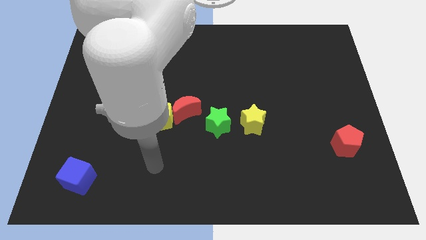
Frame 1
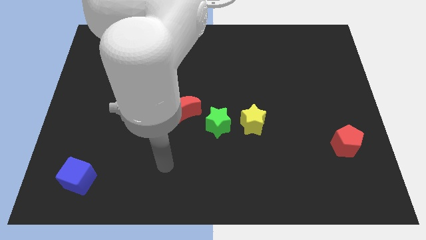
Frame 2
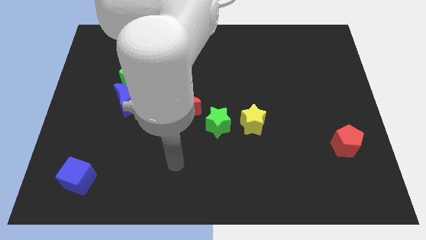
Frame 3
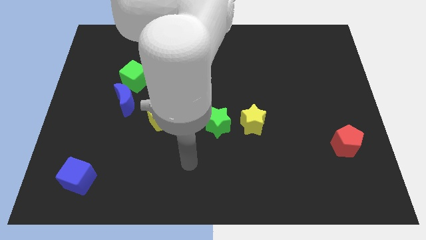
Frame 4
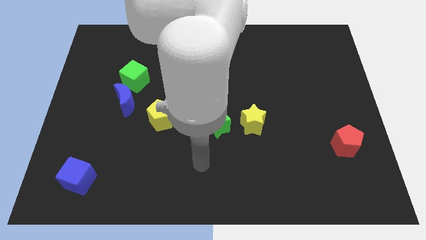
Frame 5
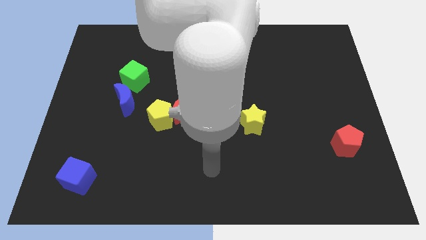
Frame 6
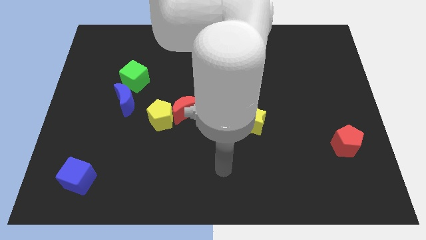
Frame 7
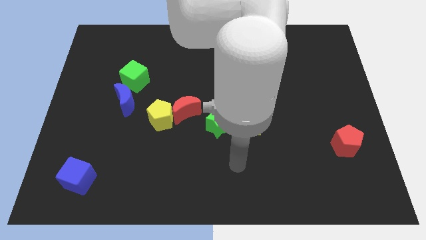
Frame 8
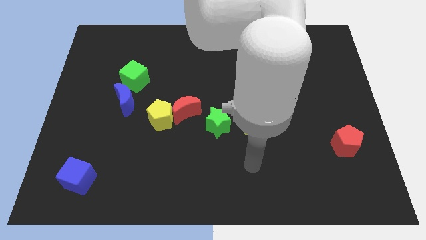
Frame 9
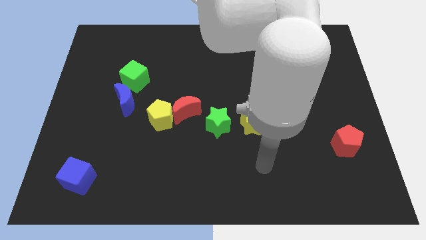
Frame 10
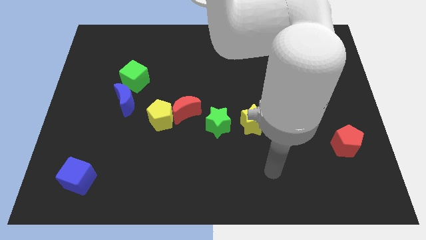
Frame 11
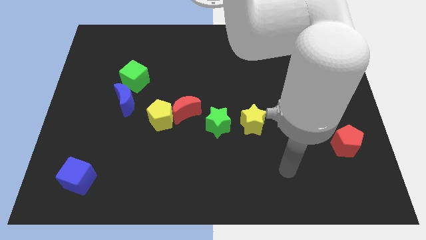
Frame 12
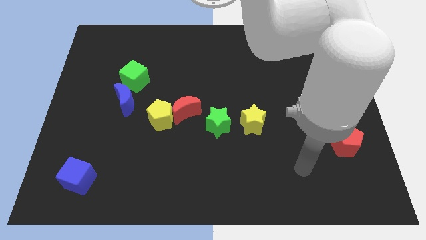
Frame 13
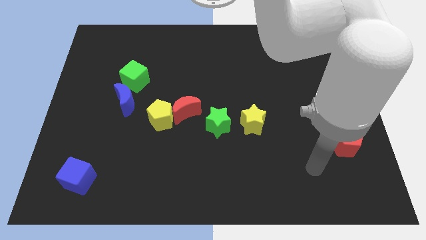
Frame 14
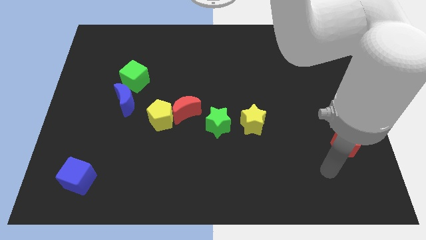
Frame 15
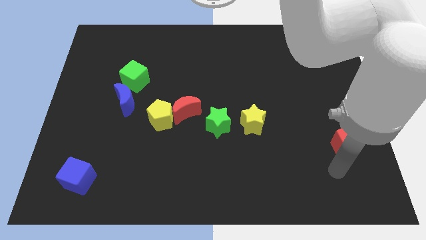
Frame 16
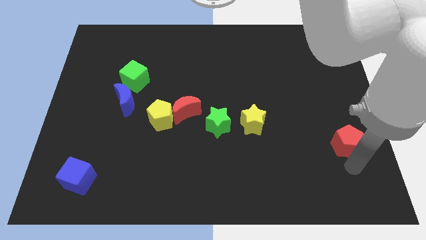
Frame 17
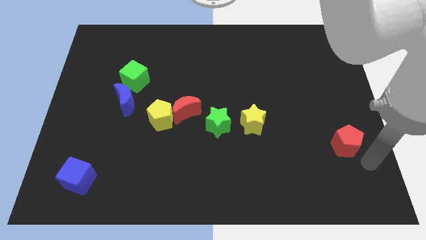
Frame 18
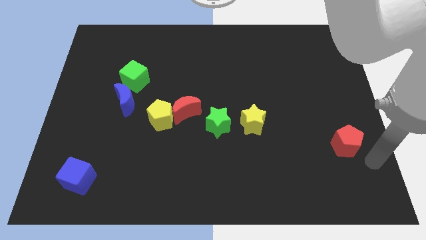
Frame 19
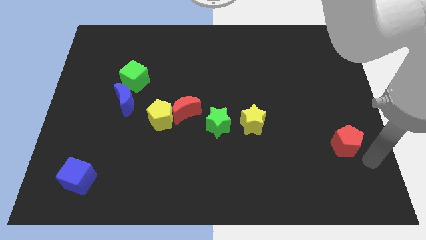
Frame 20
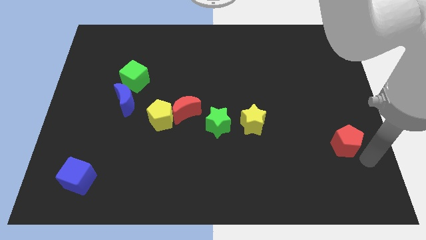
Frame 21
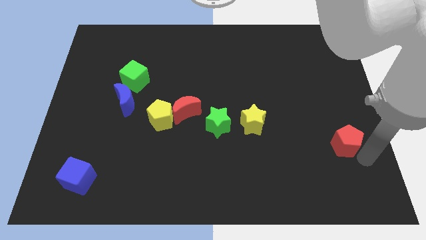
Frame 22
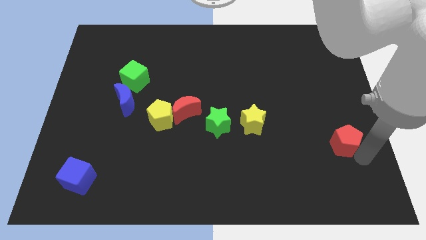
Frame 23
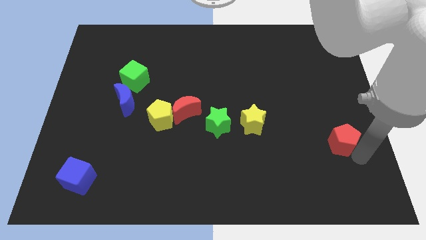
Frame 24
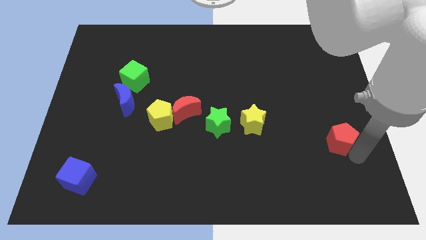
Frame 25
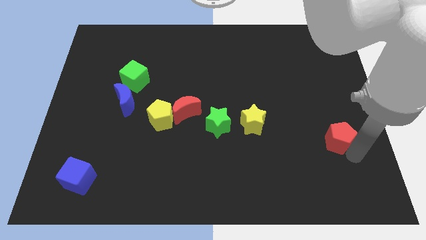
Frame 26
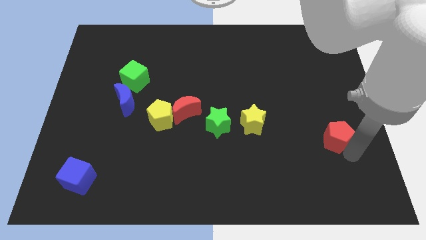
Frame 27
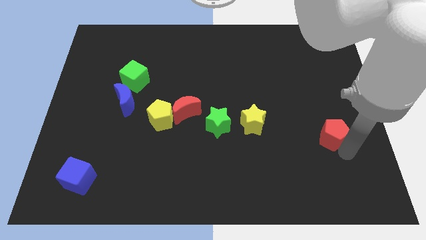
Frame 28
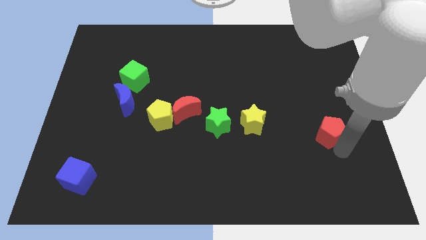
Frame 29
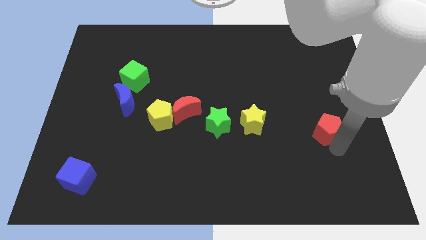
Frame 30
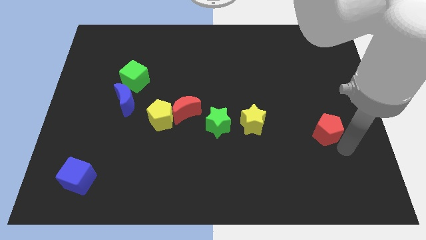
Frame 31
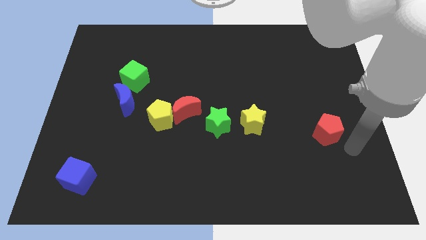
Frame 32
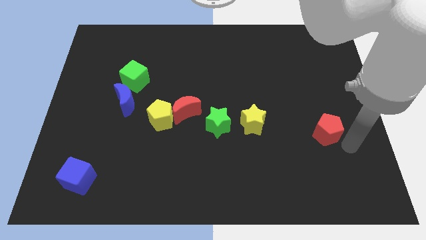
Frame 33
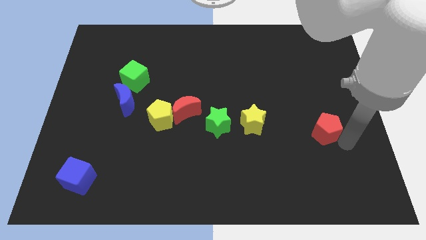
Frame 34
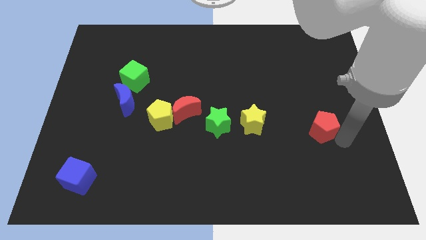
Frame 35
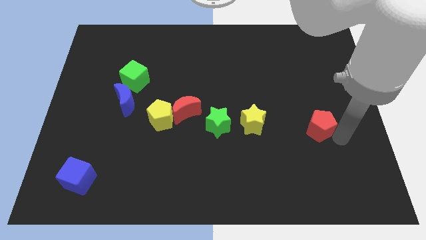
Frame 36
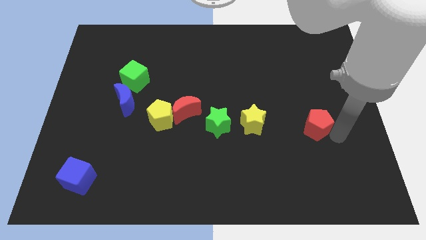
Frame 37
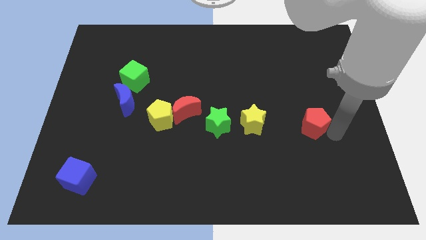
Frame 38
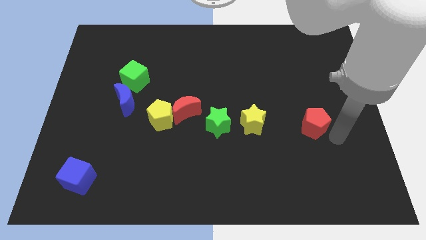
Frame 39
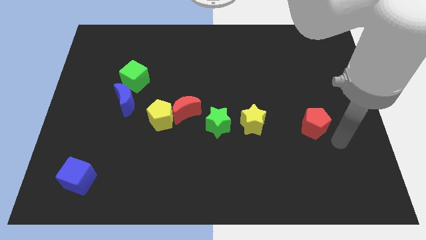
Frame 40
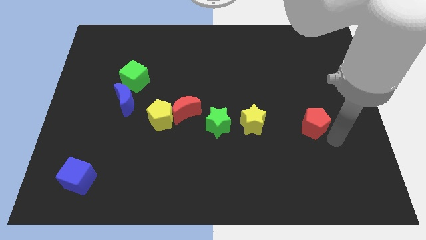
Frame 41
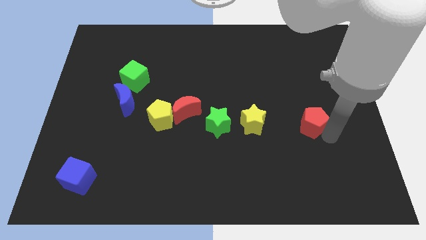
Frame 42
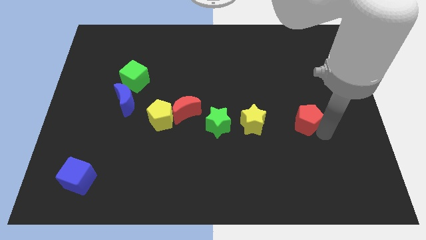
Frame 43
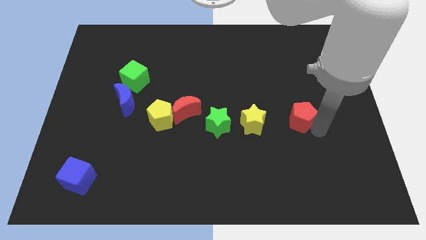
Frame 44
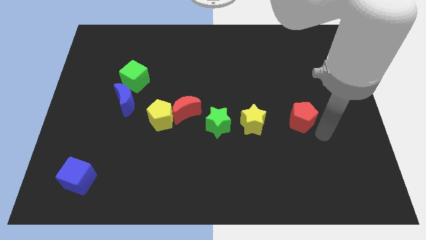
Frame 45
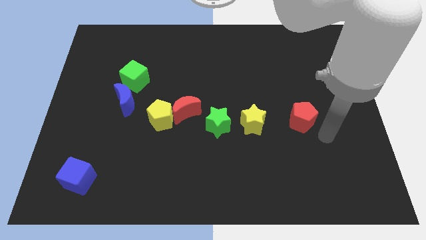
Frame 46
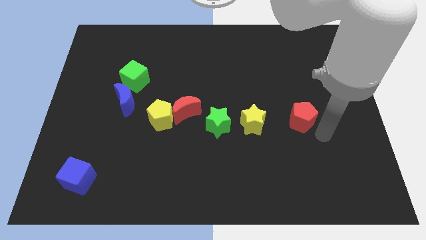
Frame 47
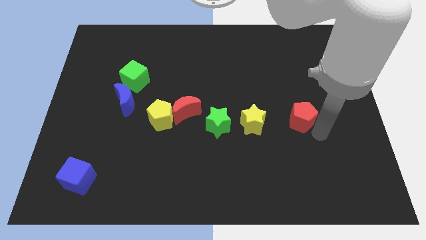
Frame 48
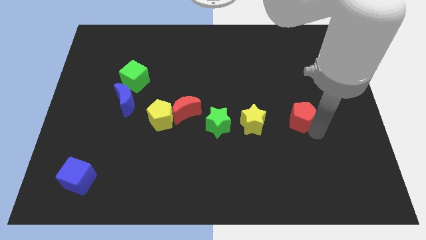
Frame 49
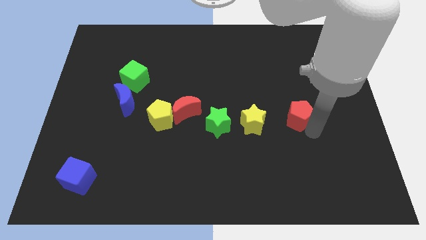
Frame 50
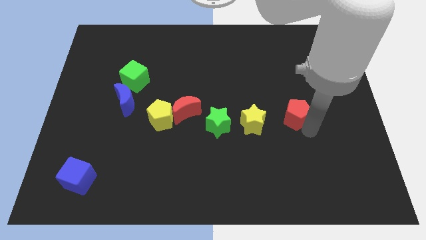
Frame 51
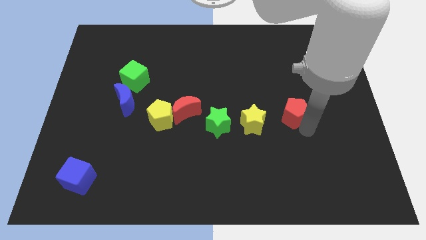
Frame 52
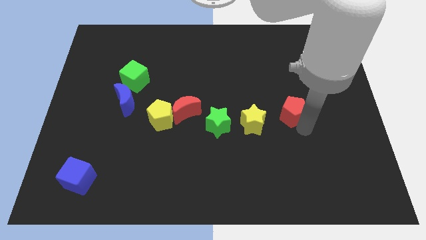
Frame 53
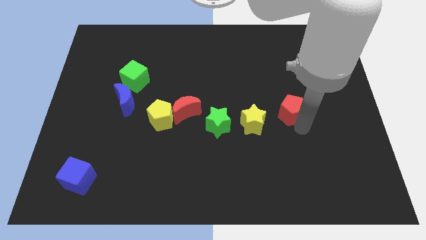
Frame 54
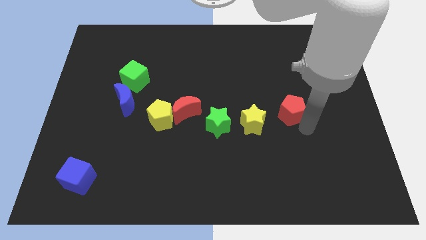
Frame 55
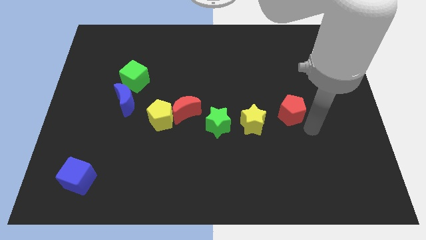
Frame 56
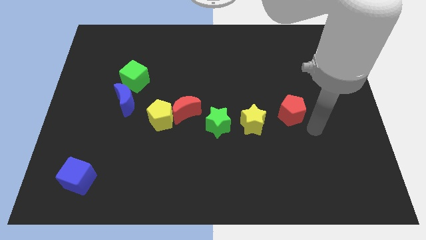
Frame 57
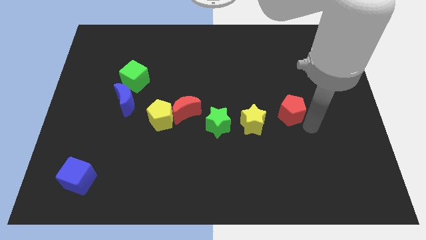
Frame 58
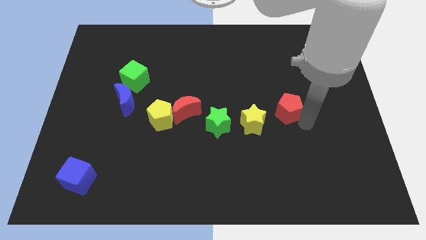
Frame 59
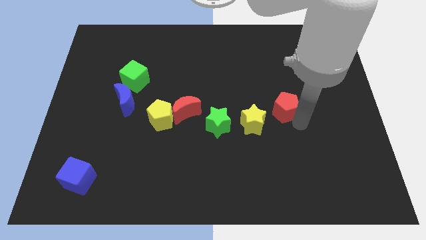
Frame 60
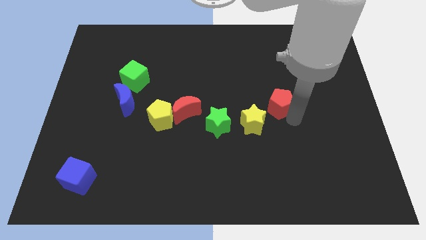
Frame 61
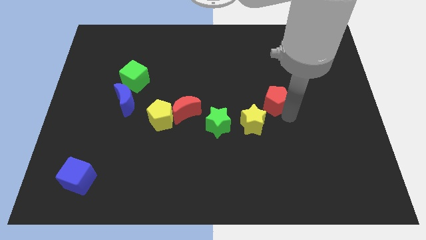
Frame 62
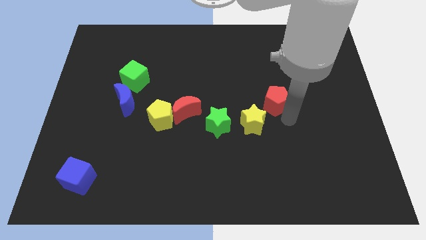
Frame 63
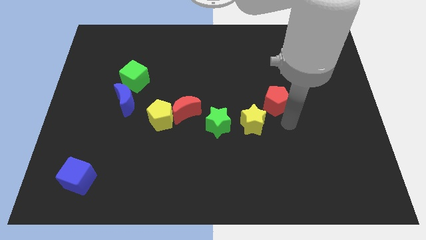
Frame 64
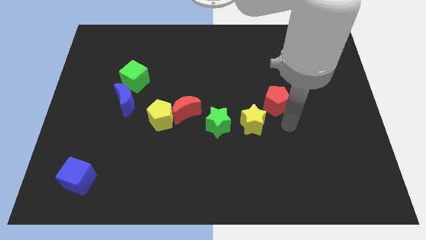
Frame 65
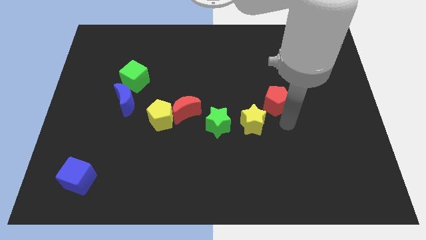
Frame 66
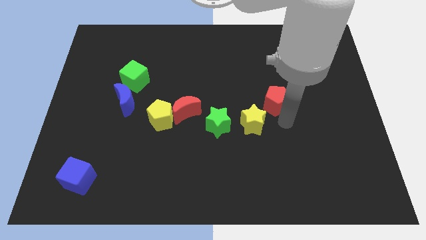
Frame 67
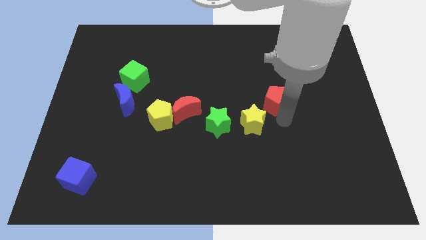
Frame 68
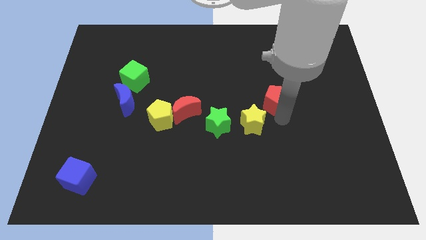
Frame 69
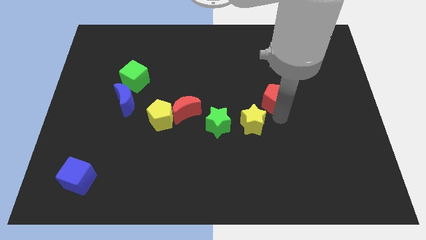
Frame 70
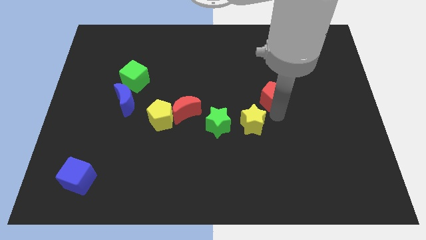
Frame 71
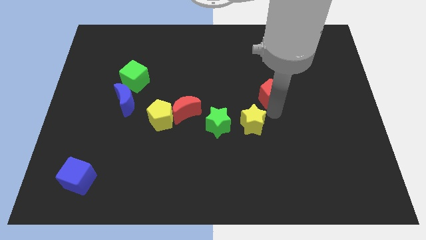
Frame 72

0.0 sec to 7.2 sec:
move the red pentagon upwards and then left

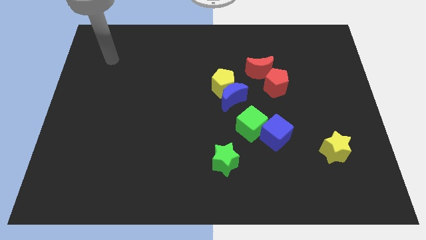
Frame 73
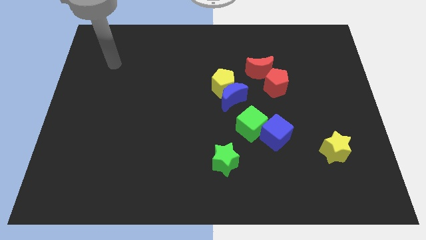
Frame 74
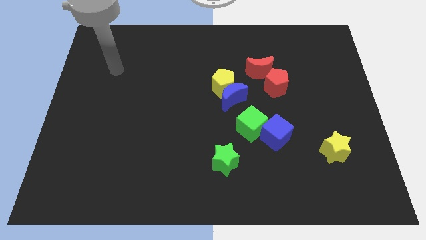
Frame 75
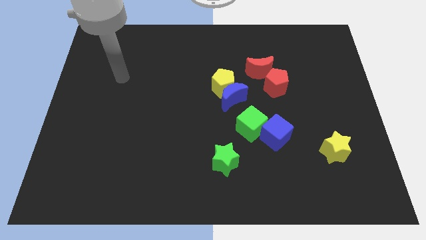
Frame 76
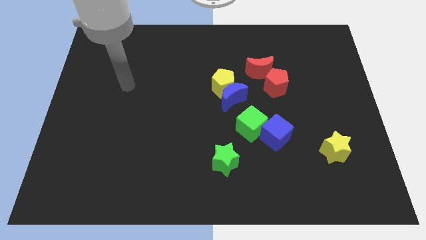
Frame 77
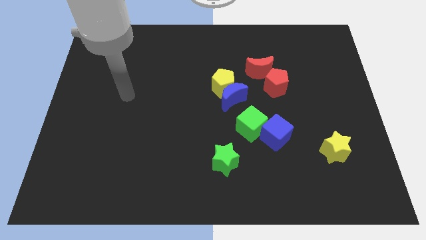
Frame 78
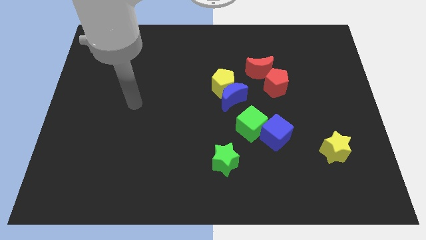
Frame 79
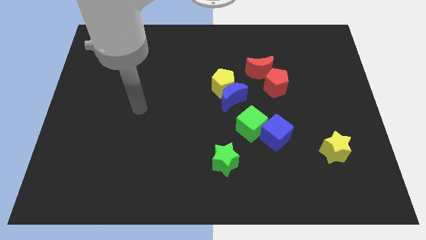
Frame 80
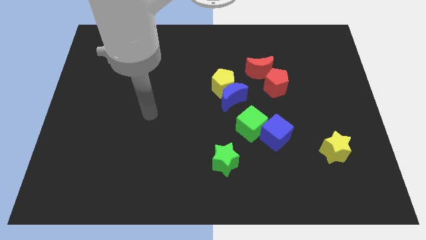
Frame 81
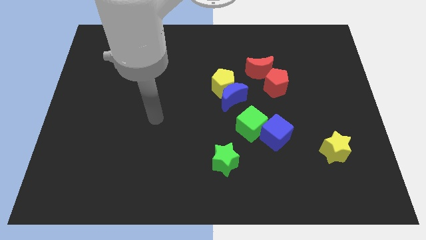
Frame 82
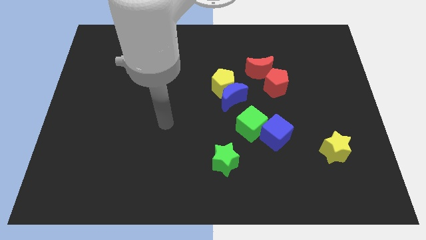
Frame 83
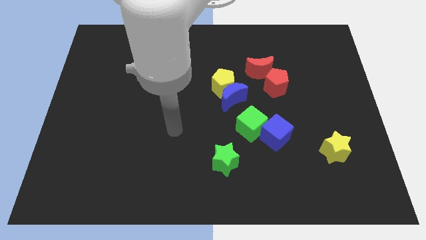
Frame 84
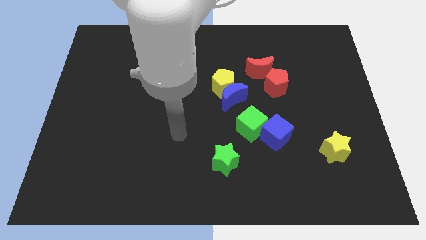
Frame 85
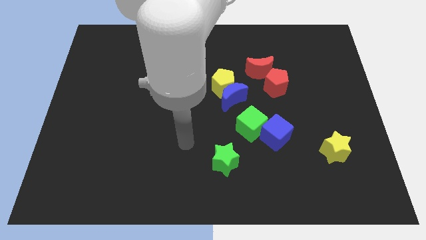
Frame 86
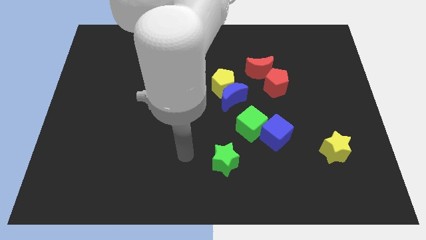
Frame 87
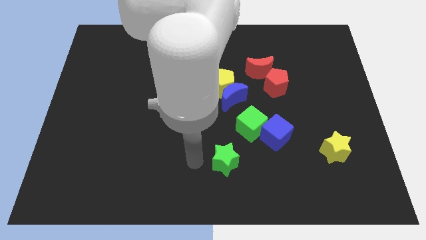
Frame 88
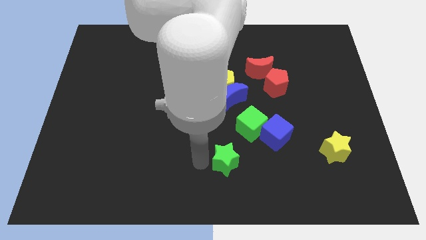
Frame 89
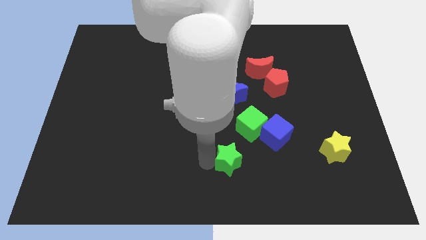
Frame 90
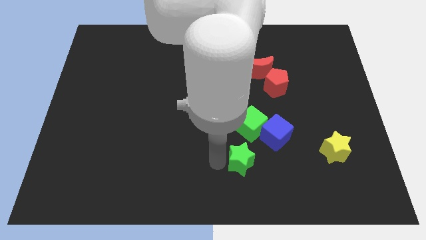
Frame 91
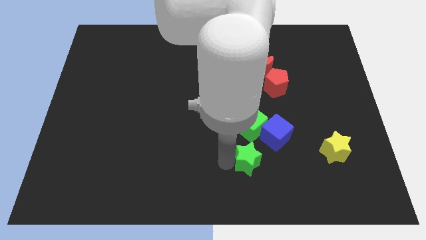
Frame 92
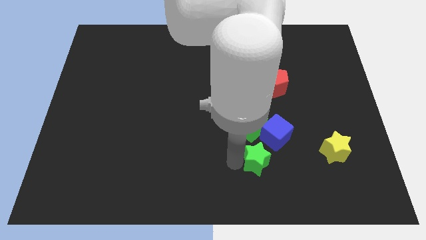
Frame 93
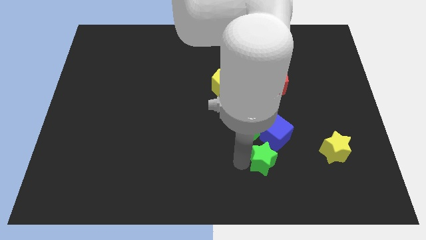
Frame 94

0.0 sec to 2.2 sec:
slightly push the green star to the right
